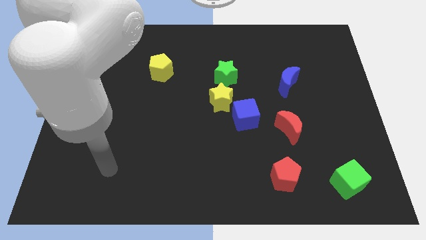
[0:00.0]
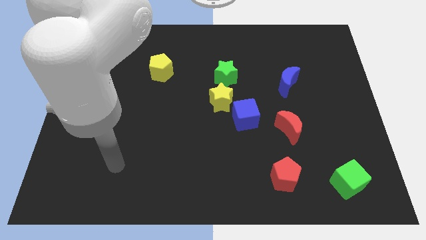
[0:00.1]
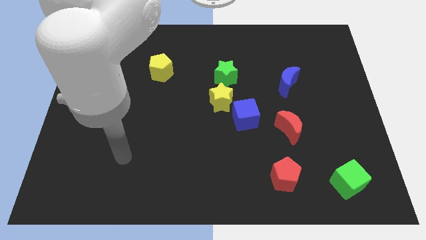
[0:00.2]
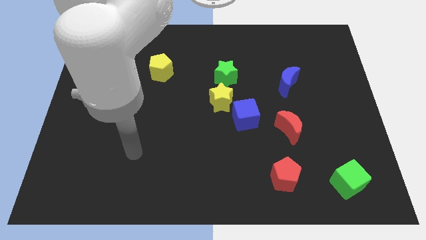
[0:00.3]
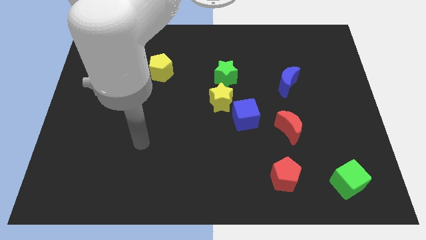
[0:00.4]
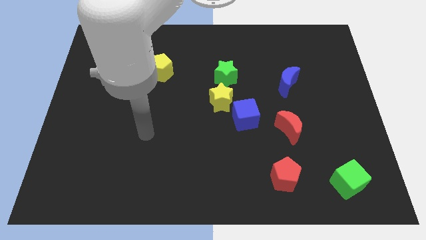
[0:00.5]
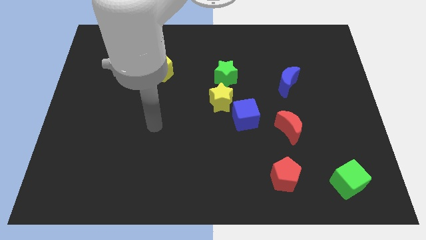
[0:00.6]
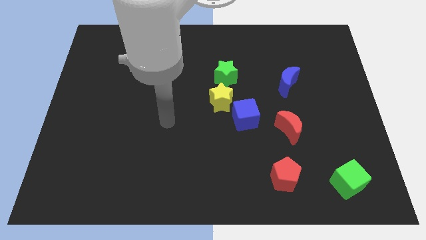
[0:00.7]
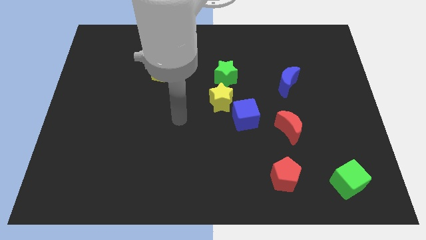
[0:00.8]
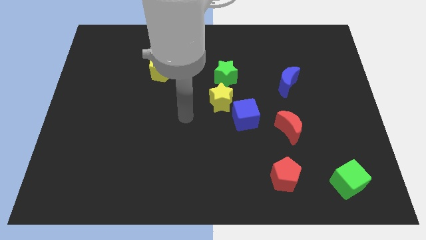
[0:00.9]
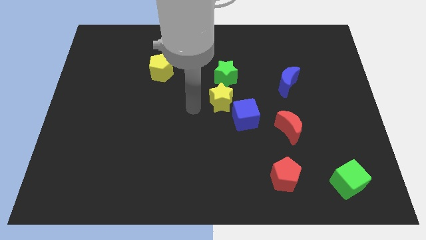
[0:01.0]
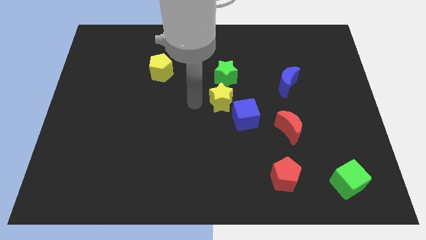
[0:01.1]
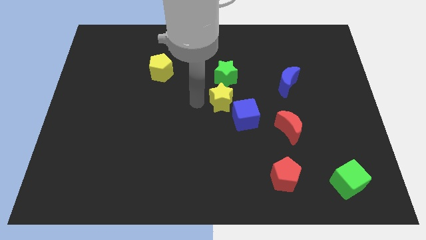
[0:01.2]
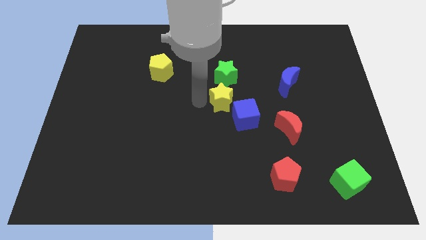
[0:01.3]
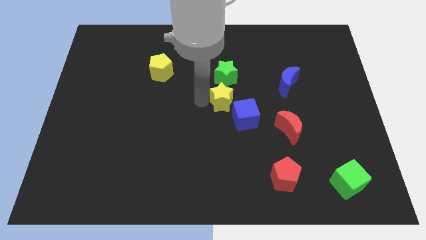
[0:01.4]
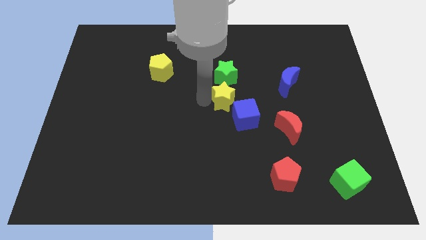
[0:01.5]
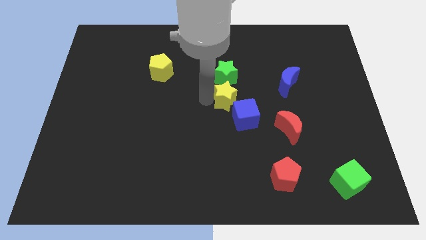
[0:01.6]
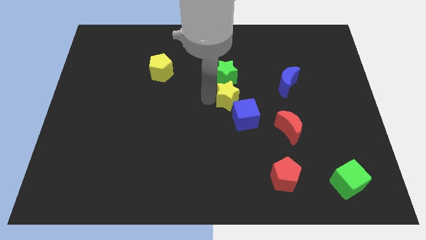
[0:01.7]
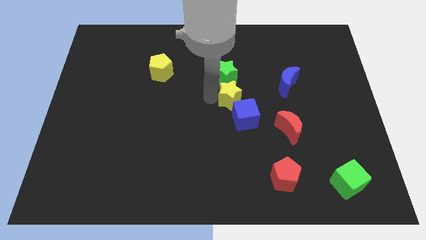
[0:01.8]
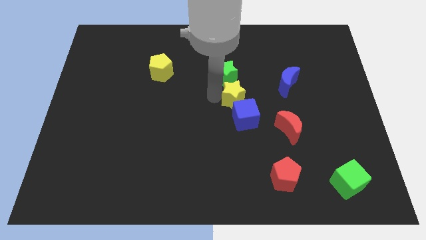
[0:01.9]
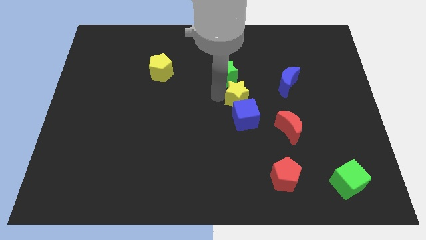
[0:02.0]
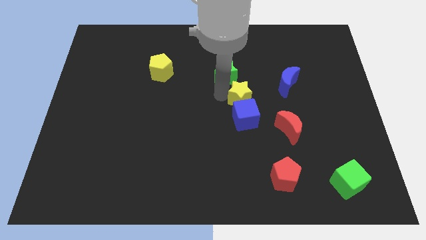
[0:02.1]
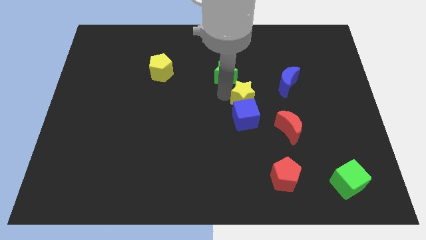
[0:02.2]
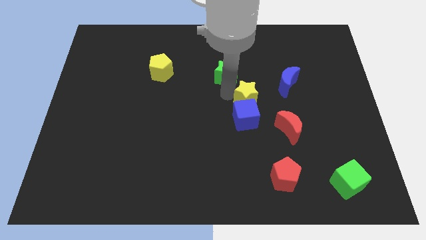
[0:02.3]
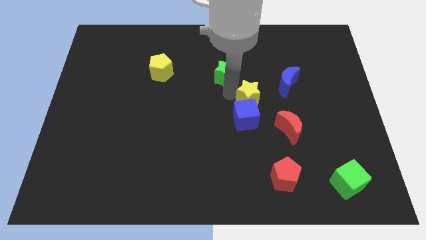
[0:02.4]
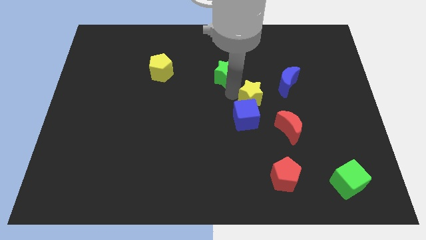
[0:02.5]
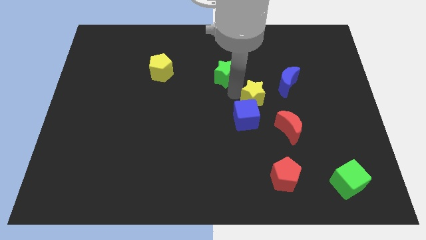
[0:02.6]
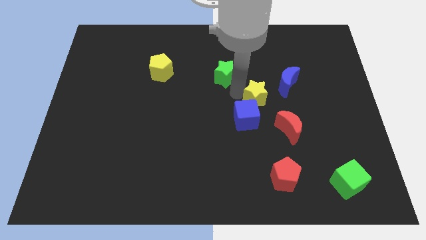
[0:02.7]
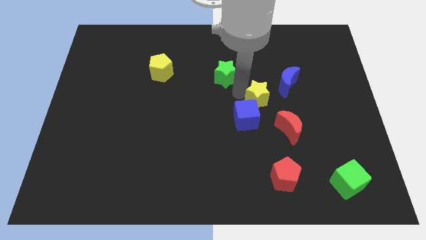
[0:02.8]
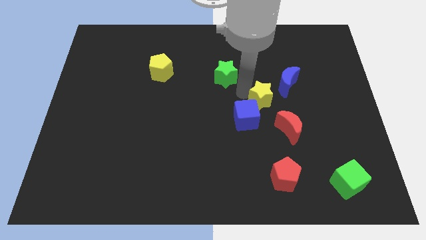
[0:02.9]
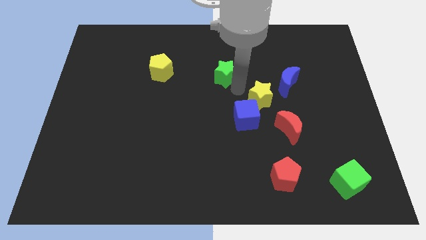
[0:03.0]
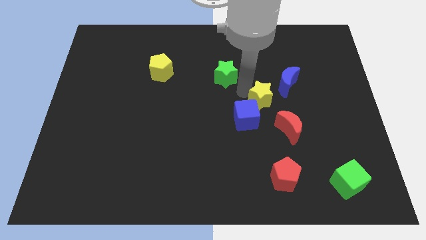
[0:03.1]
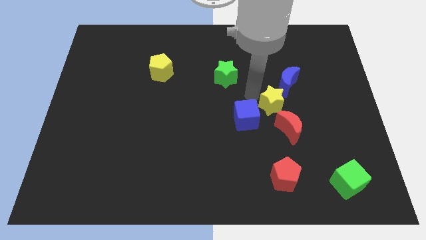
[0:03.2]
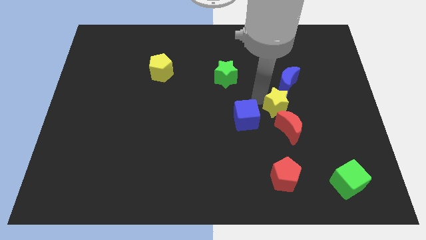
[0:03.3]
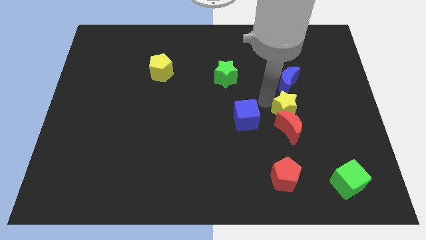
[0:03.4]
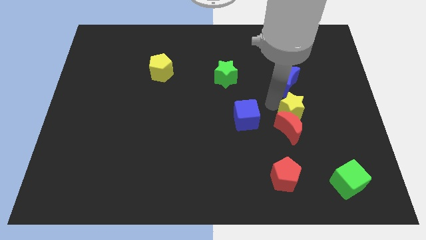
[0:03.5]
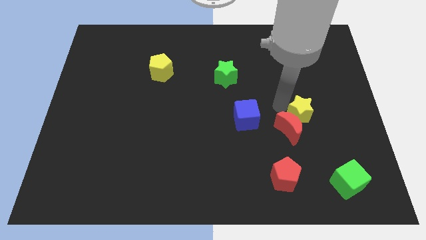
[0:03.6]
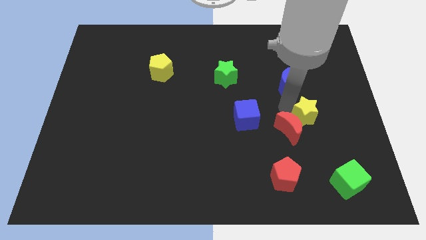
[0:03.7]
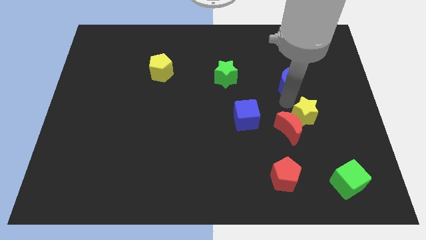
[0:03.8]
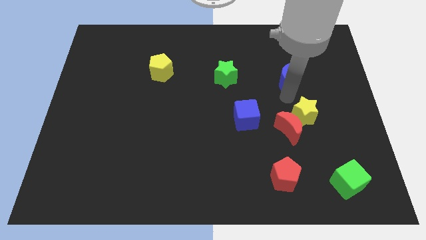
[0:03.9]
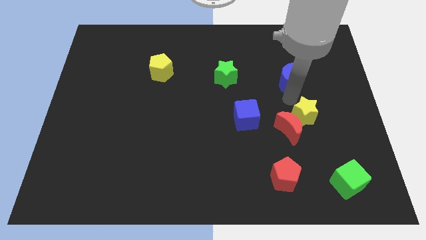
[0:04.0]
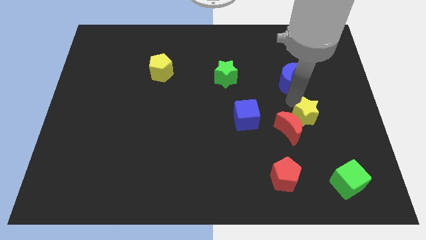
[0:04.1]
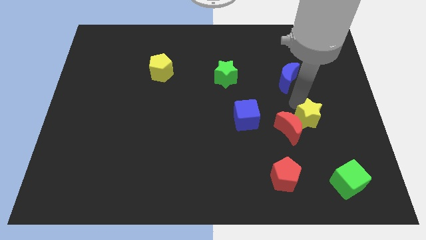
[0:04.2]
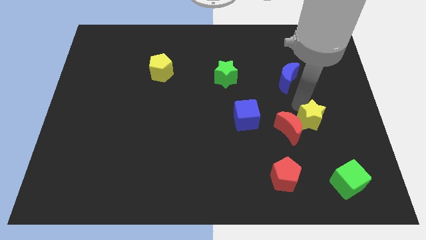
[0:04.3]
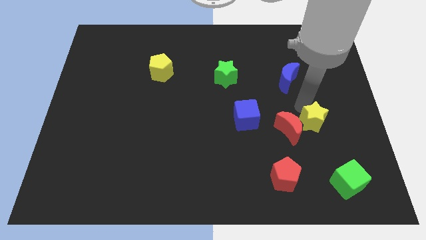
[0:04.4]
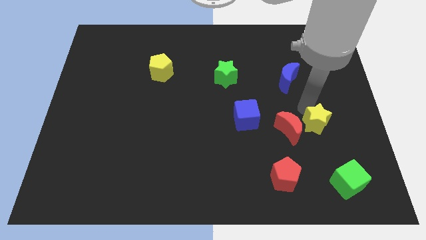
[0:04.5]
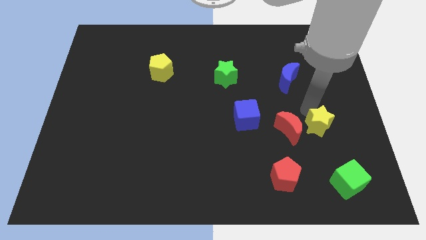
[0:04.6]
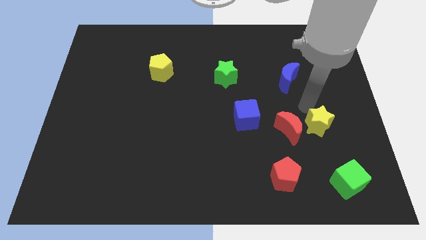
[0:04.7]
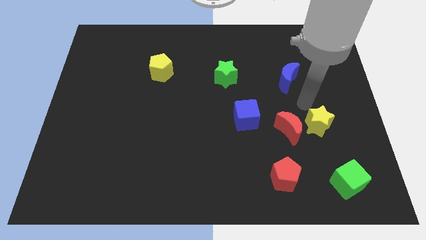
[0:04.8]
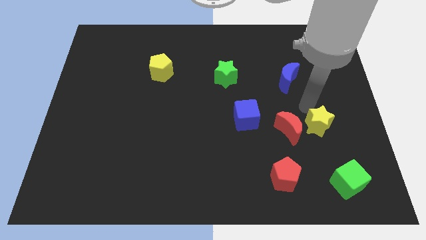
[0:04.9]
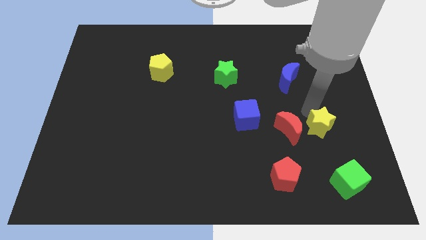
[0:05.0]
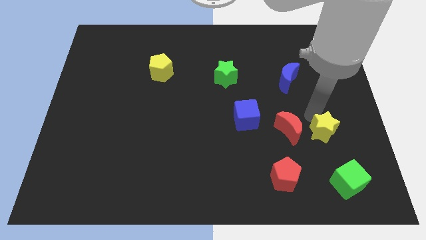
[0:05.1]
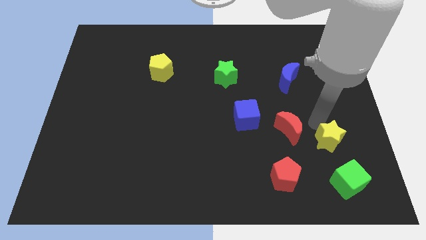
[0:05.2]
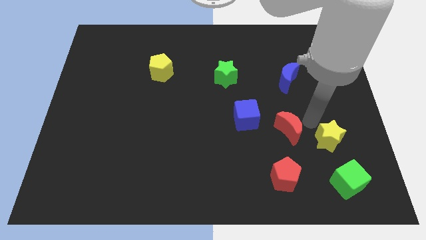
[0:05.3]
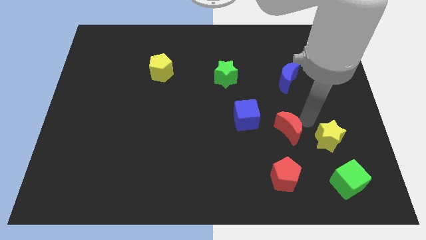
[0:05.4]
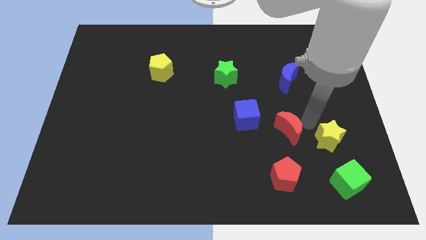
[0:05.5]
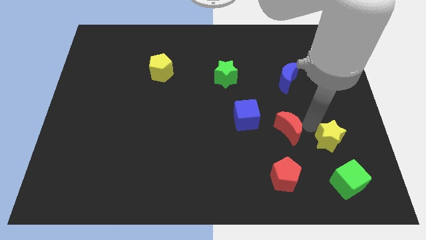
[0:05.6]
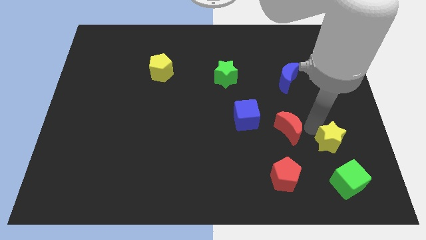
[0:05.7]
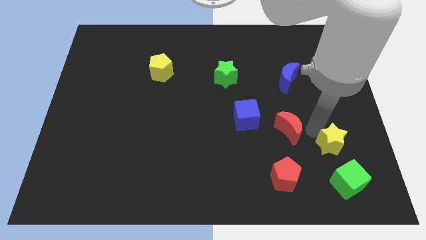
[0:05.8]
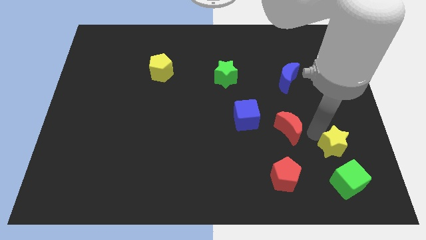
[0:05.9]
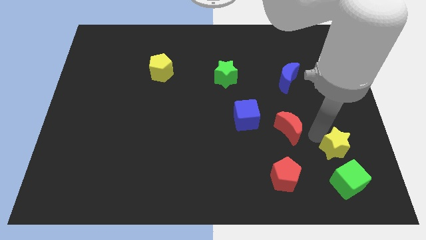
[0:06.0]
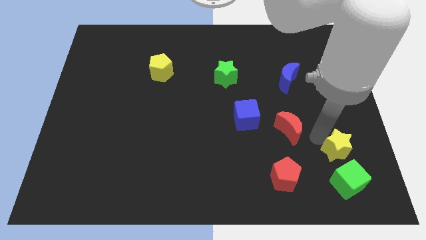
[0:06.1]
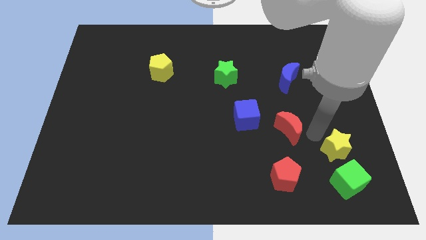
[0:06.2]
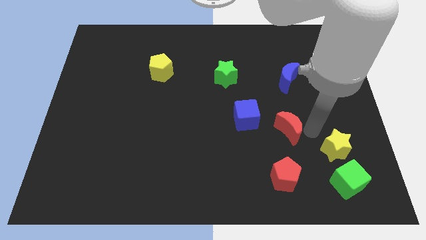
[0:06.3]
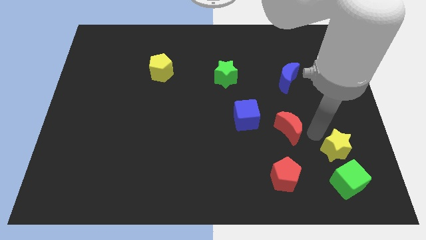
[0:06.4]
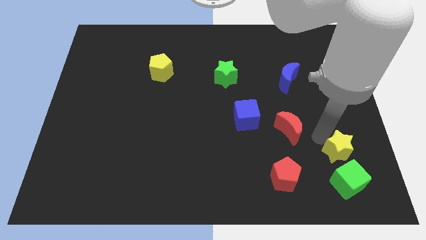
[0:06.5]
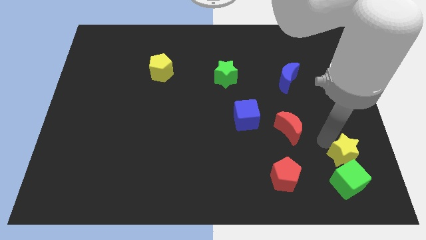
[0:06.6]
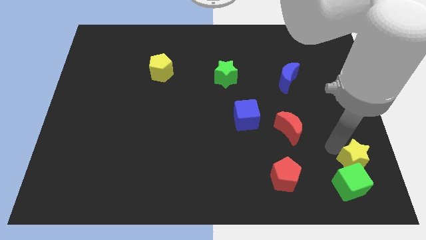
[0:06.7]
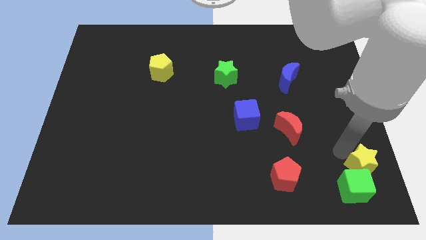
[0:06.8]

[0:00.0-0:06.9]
slide the yellow star to the bottom right of the board
